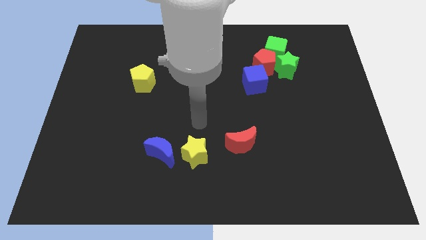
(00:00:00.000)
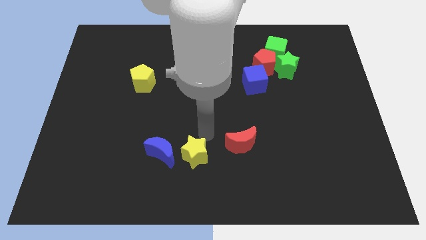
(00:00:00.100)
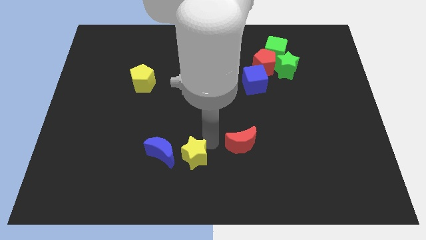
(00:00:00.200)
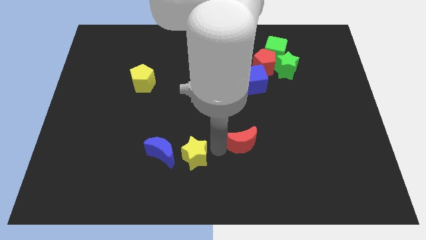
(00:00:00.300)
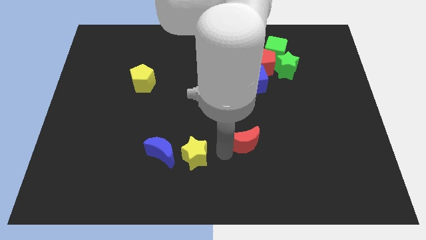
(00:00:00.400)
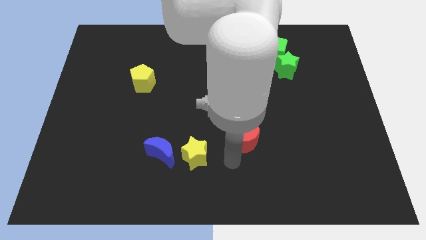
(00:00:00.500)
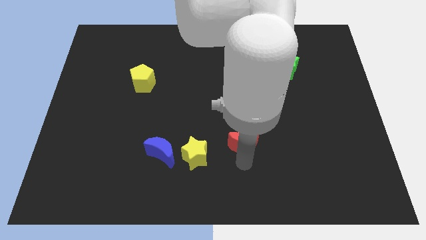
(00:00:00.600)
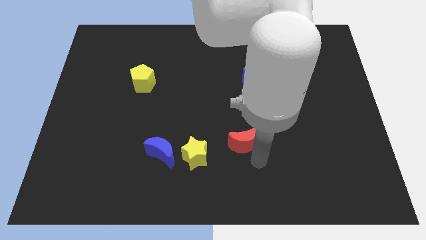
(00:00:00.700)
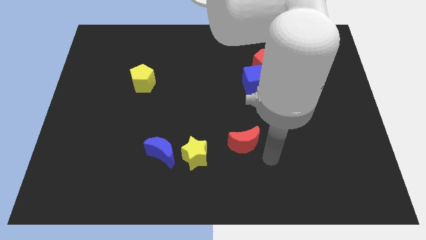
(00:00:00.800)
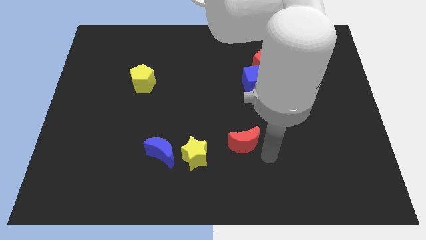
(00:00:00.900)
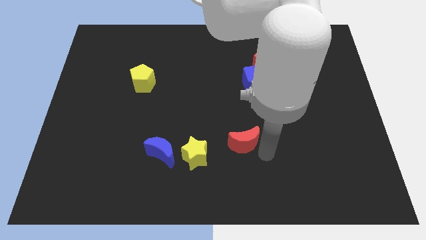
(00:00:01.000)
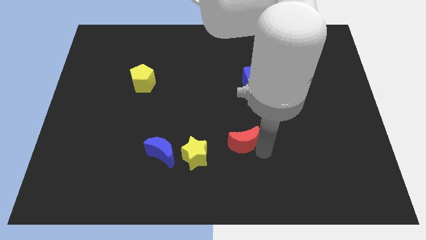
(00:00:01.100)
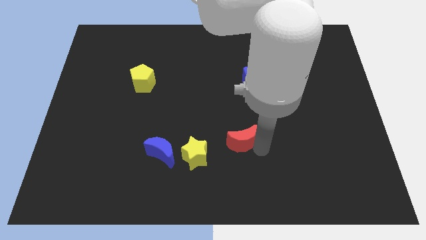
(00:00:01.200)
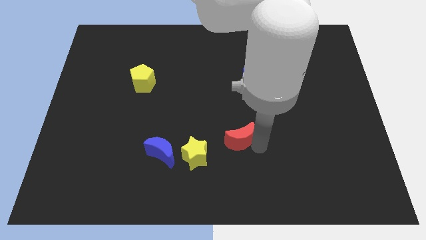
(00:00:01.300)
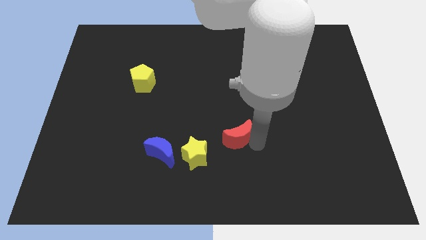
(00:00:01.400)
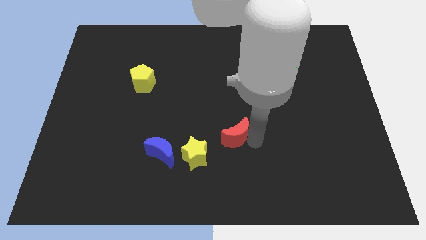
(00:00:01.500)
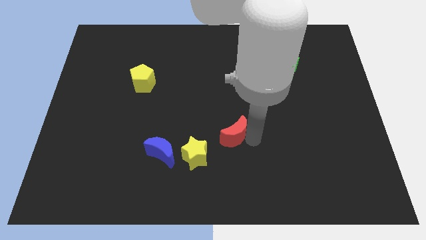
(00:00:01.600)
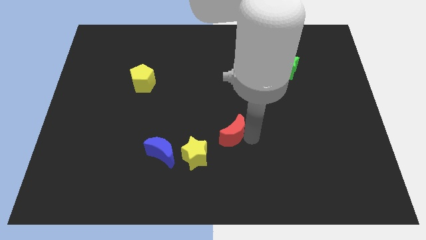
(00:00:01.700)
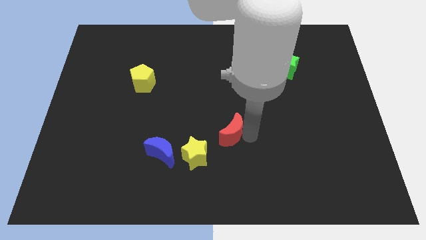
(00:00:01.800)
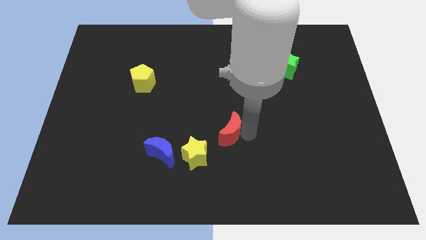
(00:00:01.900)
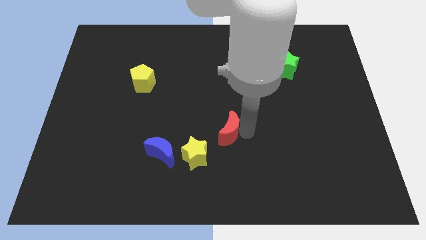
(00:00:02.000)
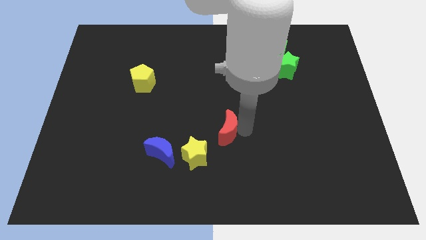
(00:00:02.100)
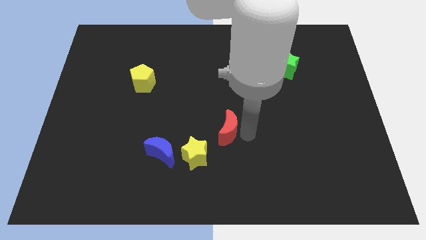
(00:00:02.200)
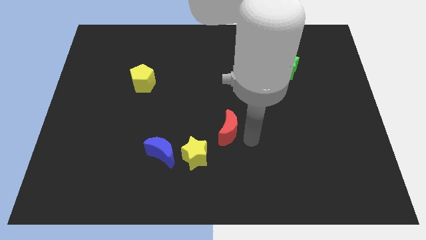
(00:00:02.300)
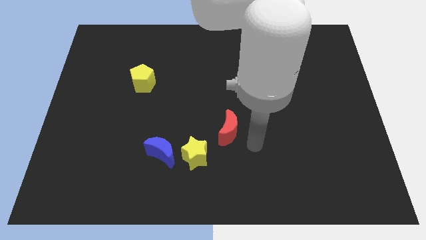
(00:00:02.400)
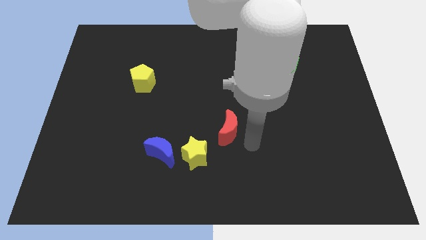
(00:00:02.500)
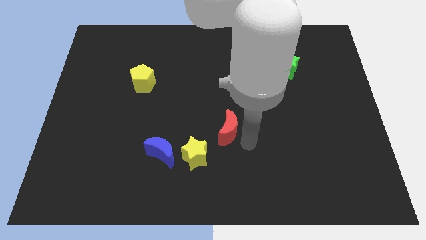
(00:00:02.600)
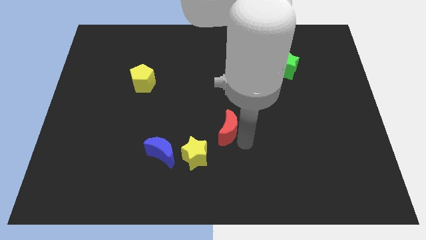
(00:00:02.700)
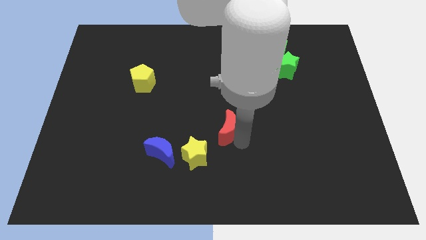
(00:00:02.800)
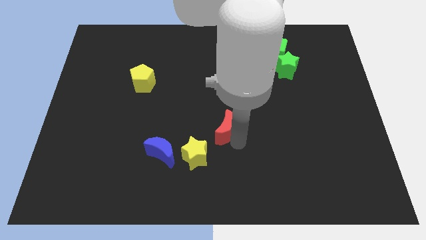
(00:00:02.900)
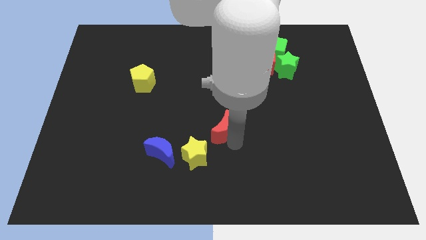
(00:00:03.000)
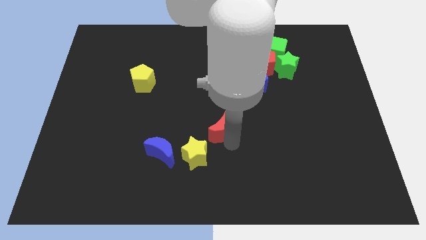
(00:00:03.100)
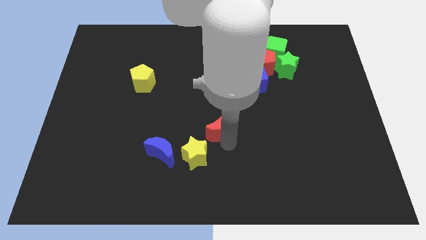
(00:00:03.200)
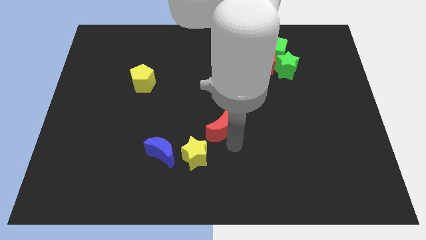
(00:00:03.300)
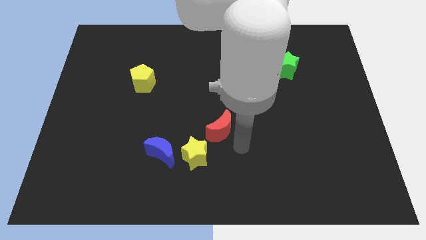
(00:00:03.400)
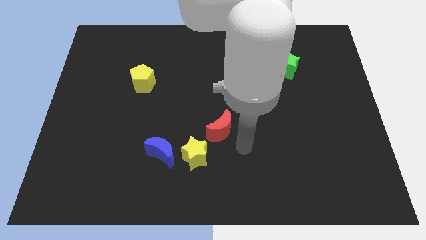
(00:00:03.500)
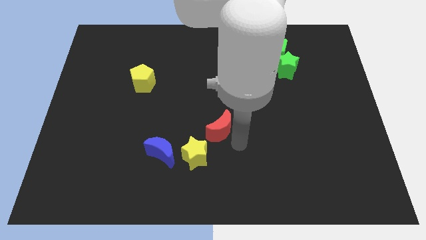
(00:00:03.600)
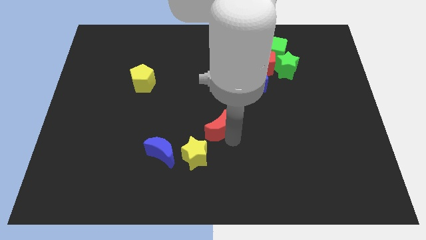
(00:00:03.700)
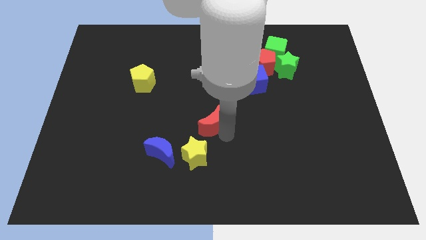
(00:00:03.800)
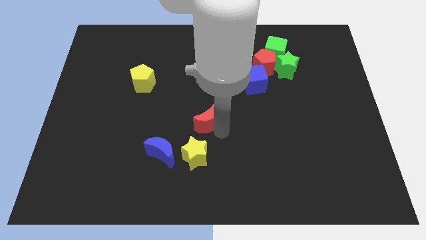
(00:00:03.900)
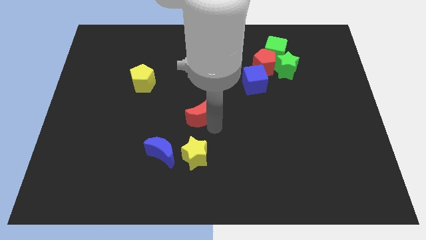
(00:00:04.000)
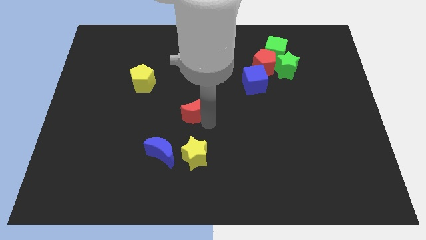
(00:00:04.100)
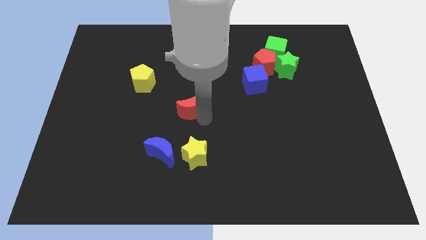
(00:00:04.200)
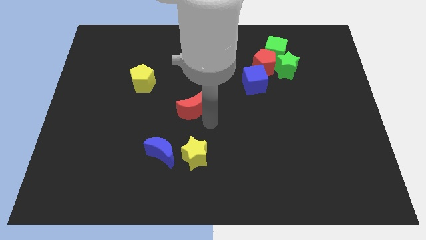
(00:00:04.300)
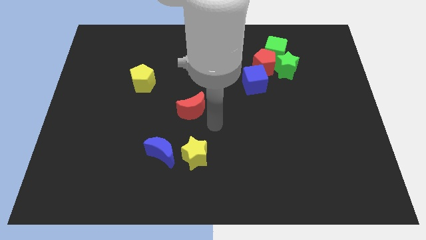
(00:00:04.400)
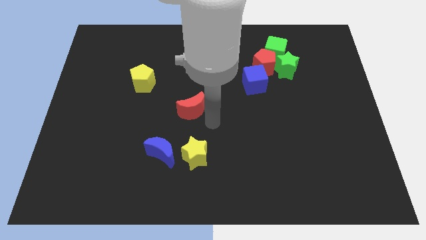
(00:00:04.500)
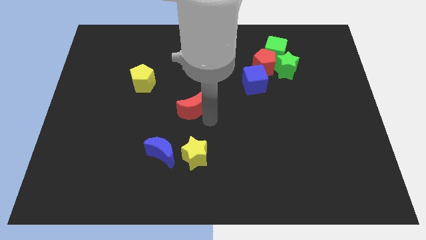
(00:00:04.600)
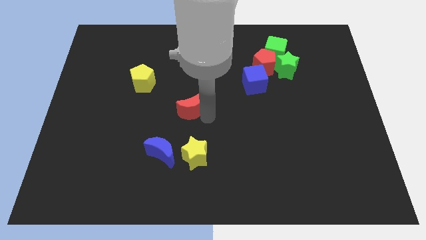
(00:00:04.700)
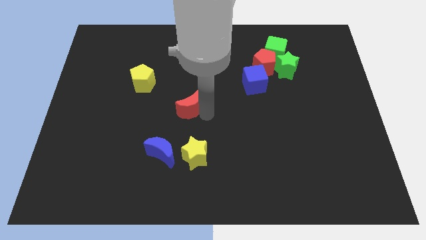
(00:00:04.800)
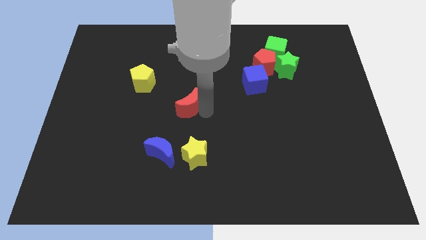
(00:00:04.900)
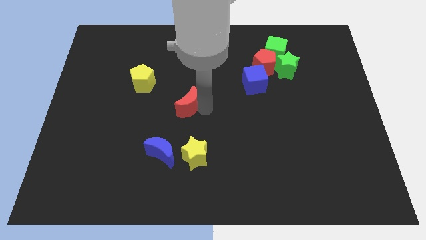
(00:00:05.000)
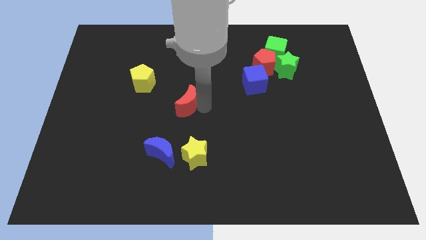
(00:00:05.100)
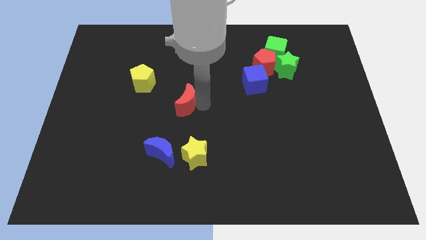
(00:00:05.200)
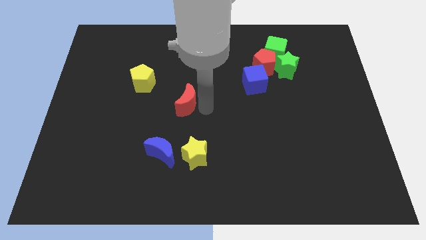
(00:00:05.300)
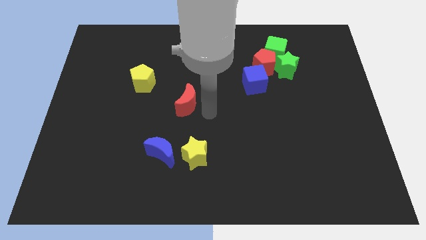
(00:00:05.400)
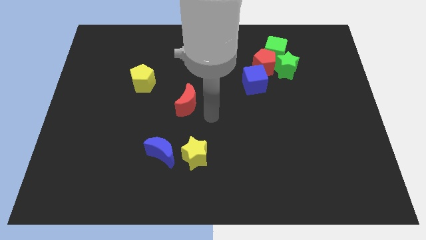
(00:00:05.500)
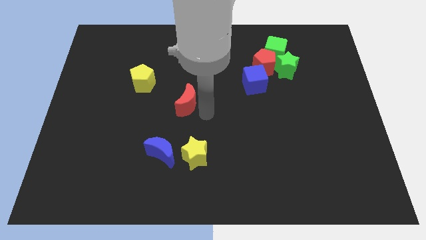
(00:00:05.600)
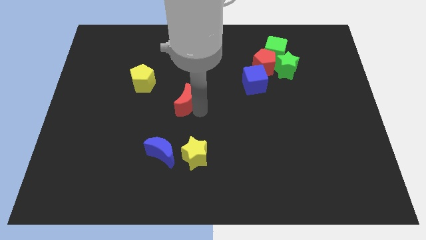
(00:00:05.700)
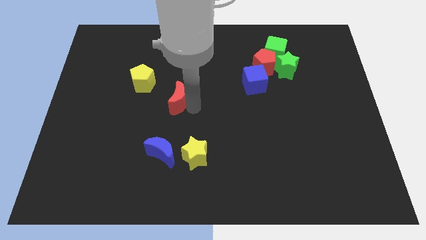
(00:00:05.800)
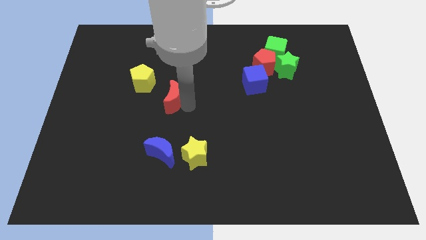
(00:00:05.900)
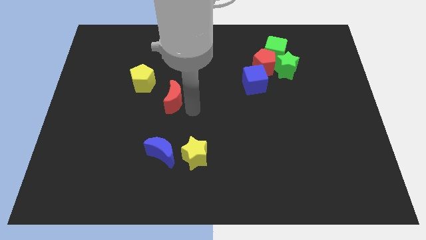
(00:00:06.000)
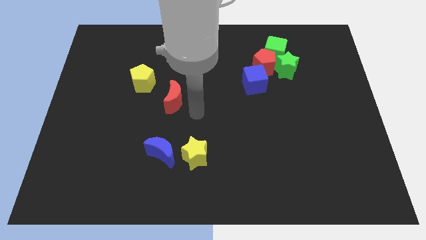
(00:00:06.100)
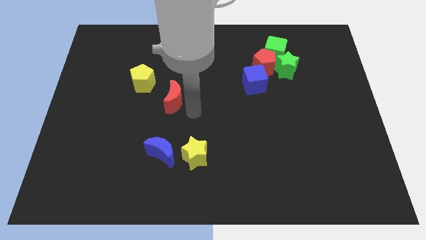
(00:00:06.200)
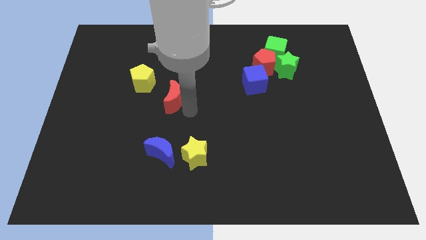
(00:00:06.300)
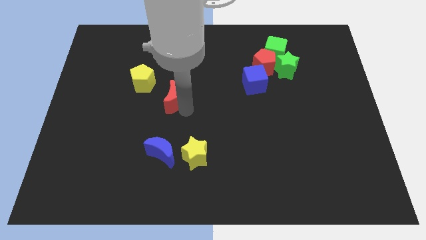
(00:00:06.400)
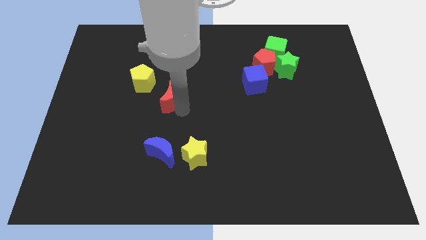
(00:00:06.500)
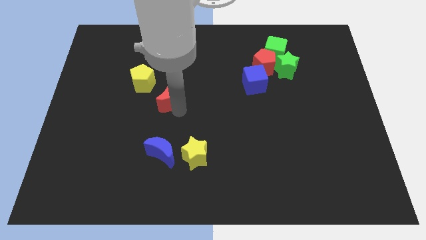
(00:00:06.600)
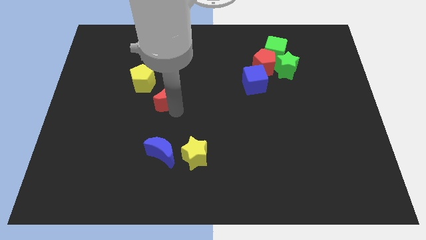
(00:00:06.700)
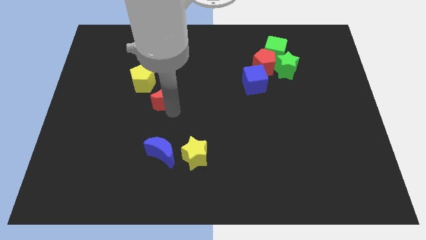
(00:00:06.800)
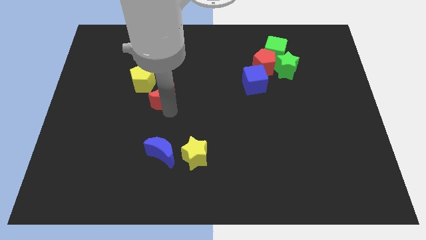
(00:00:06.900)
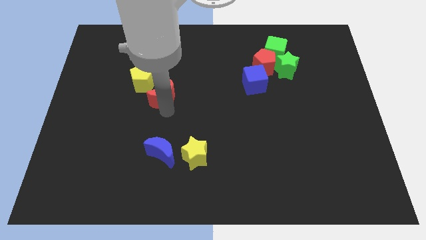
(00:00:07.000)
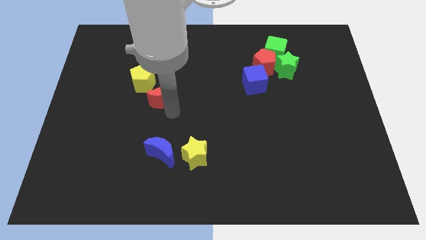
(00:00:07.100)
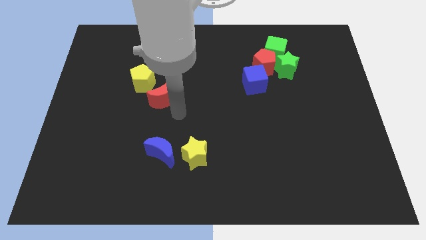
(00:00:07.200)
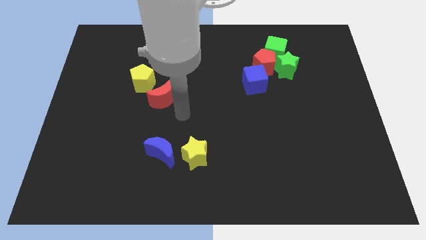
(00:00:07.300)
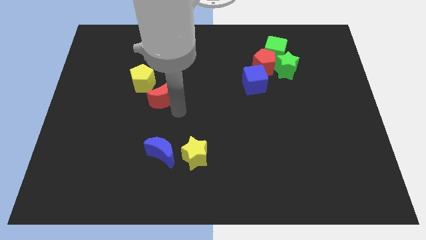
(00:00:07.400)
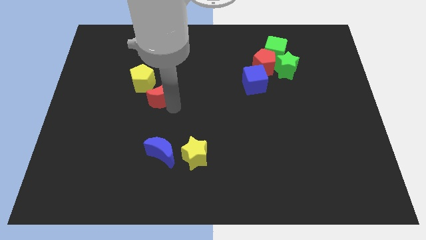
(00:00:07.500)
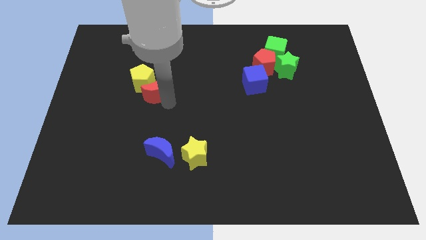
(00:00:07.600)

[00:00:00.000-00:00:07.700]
push the red moon next to the yellow pentagon
